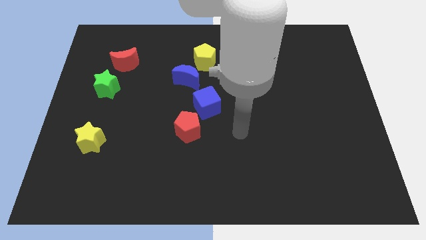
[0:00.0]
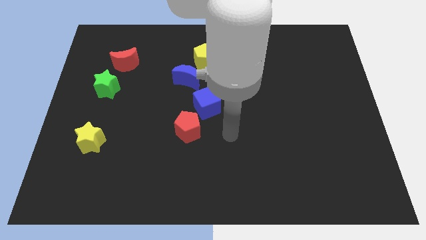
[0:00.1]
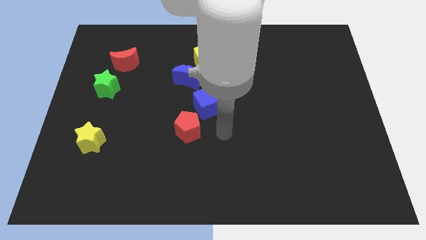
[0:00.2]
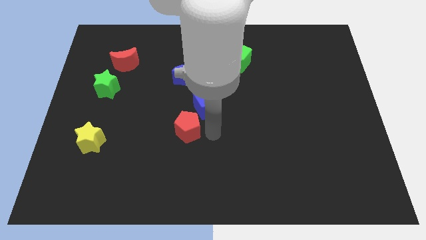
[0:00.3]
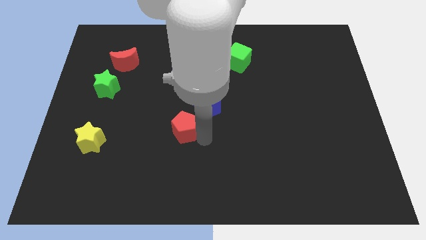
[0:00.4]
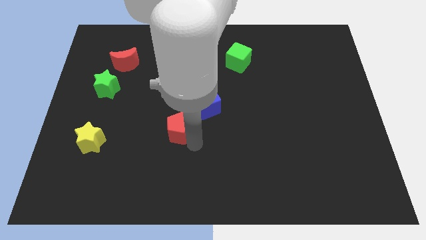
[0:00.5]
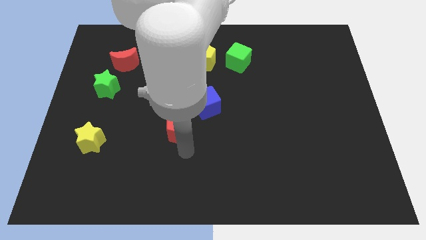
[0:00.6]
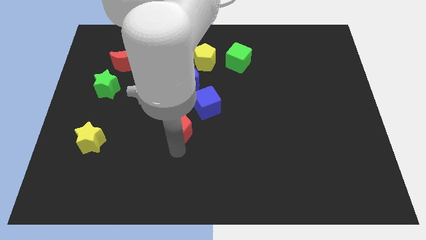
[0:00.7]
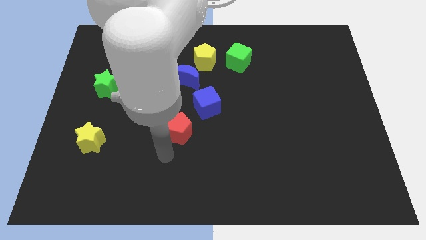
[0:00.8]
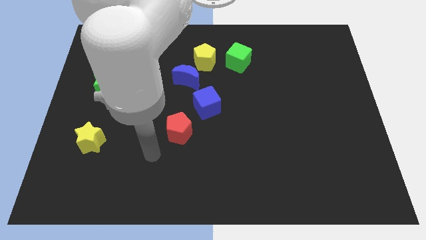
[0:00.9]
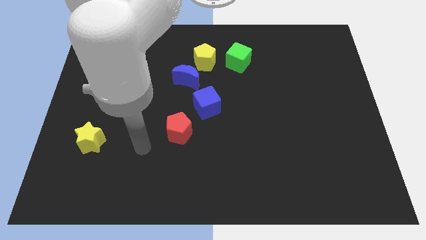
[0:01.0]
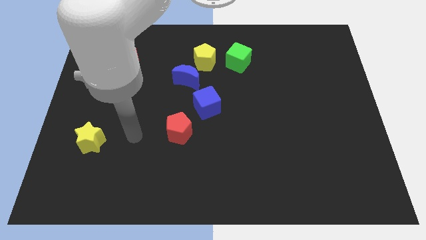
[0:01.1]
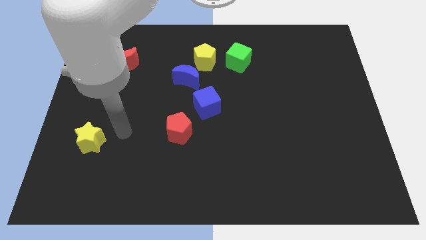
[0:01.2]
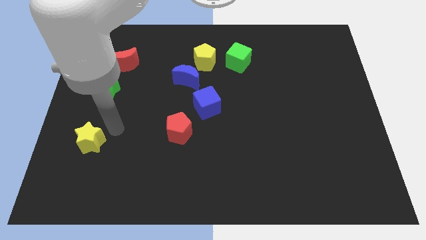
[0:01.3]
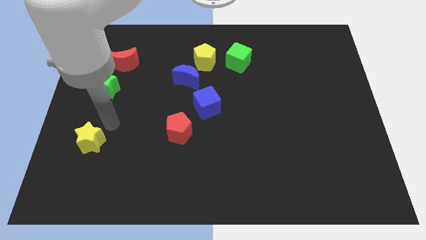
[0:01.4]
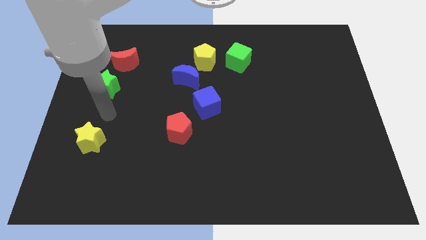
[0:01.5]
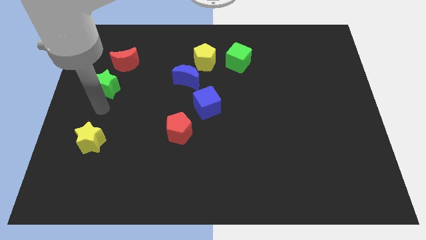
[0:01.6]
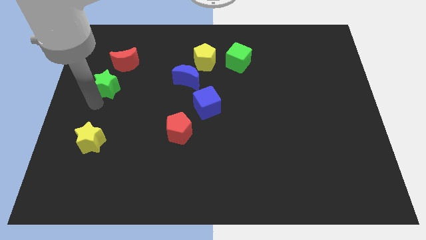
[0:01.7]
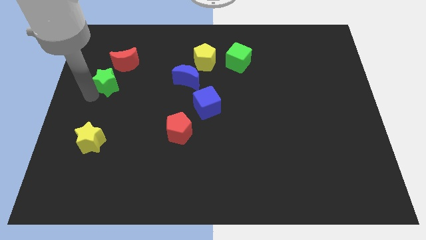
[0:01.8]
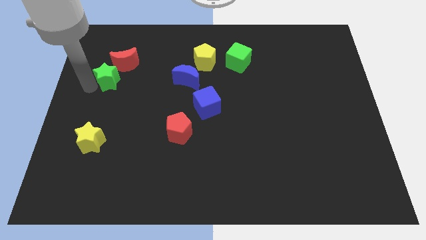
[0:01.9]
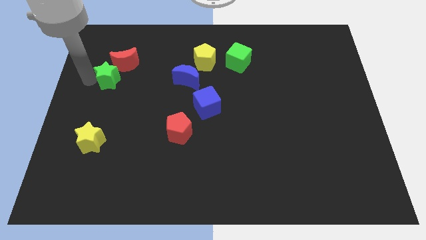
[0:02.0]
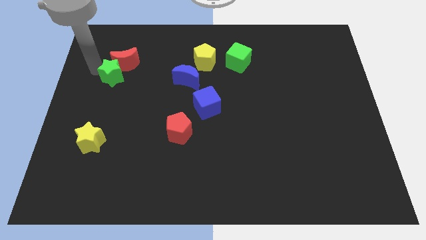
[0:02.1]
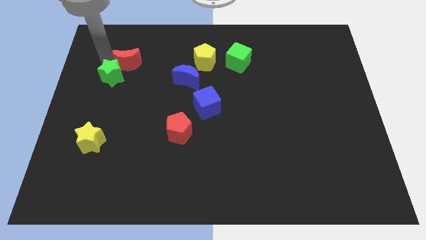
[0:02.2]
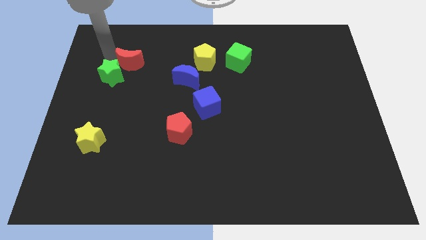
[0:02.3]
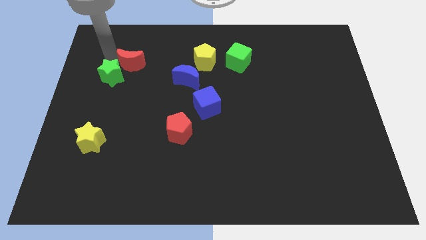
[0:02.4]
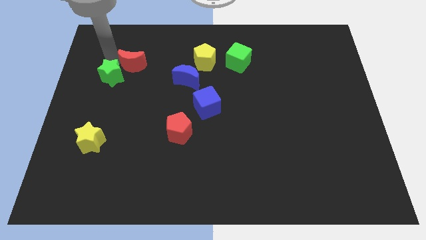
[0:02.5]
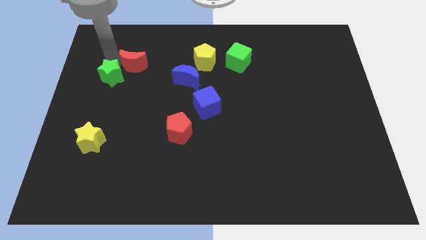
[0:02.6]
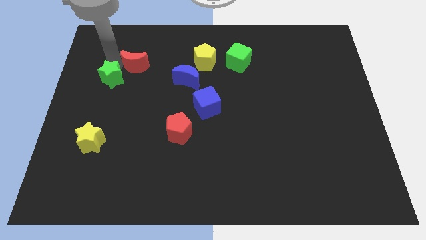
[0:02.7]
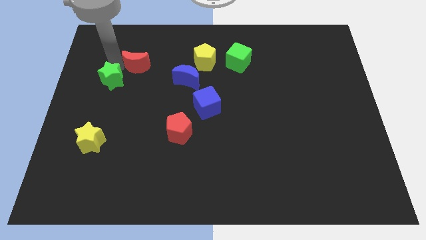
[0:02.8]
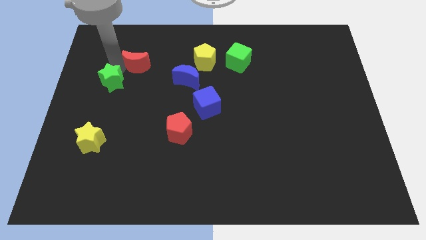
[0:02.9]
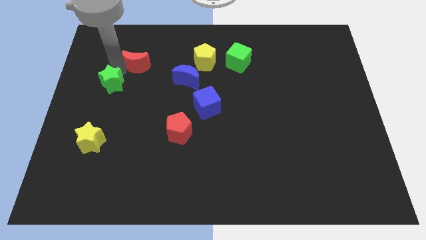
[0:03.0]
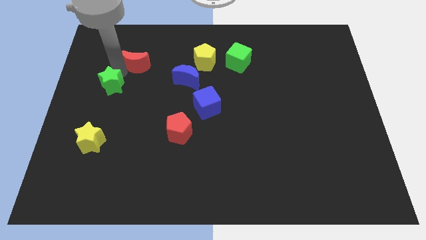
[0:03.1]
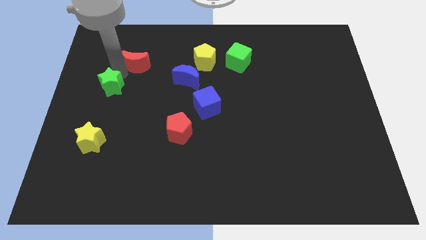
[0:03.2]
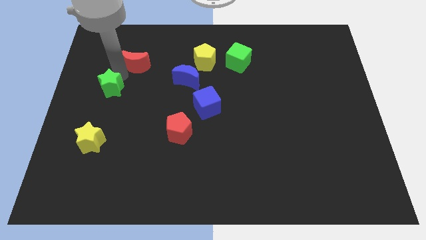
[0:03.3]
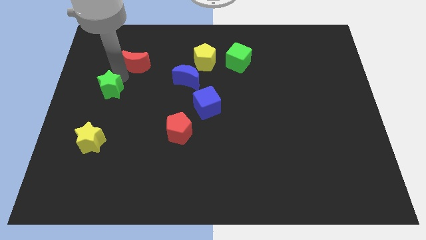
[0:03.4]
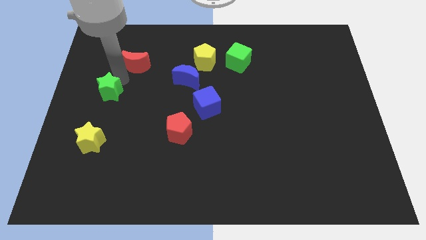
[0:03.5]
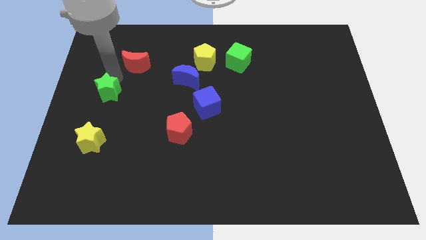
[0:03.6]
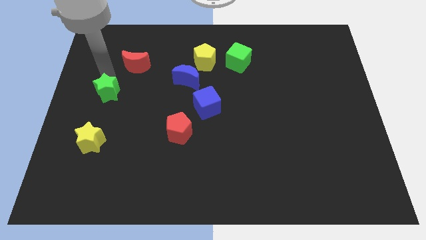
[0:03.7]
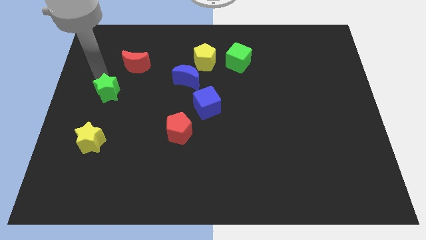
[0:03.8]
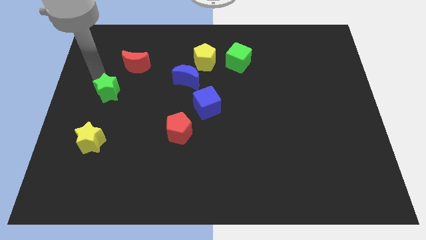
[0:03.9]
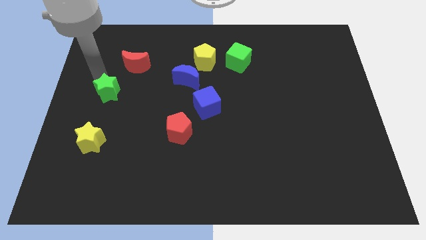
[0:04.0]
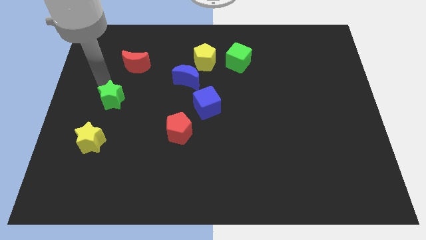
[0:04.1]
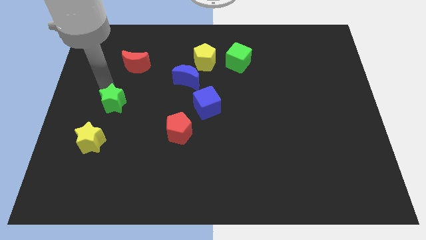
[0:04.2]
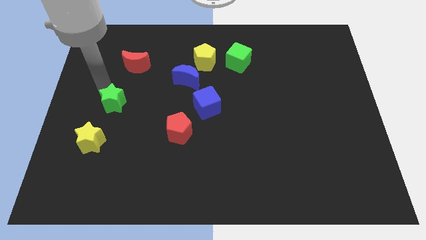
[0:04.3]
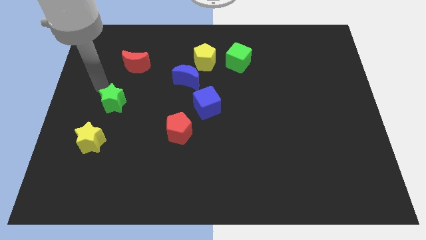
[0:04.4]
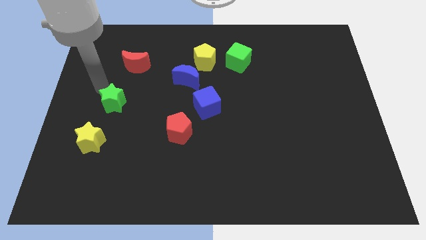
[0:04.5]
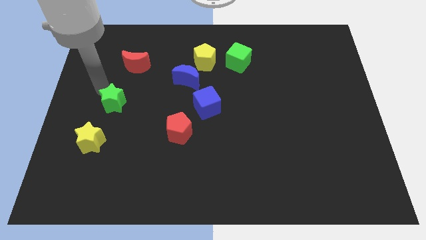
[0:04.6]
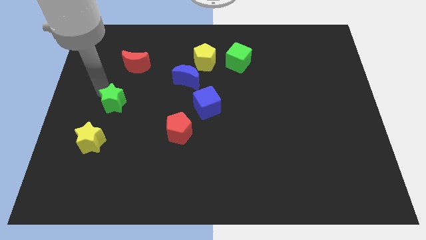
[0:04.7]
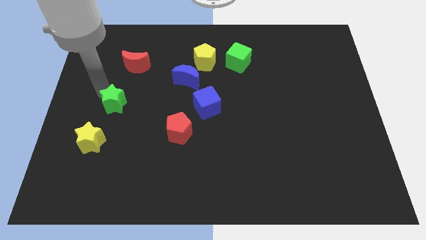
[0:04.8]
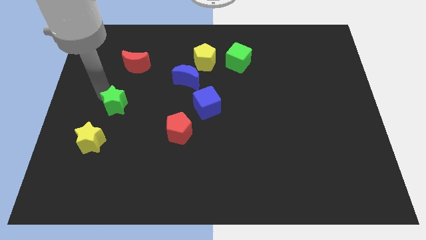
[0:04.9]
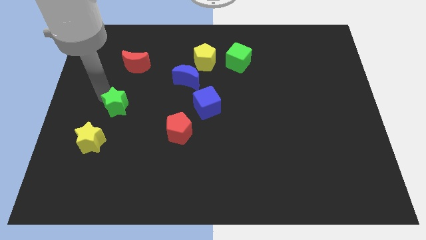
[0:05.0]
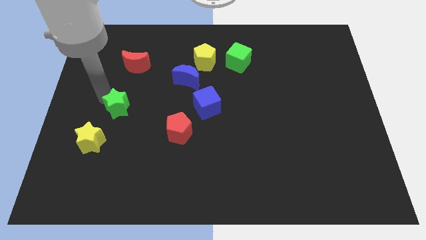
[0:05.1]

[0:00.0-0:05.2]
slide the green star a little down and to the right diagonally

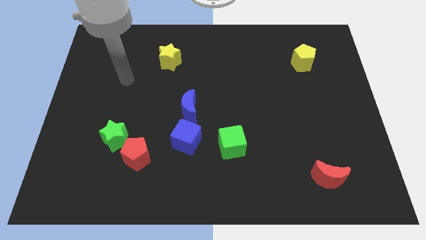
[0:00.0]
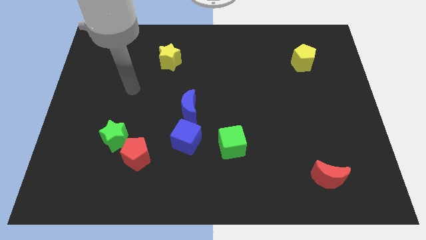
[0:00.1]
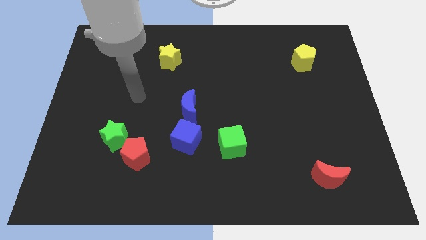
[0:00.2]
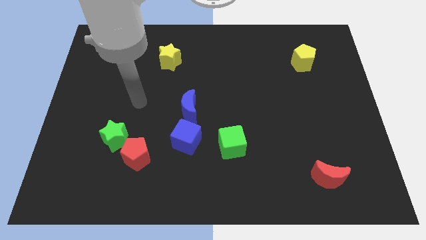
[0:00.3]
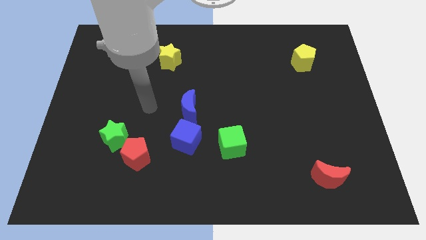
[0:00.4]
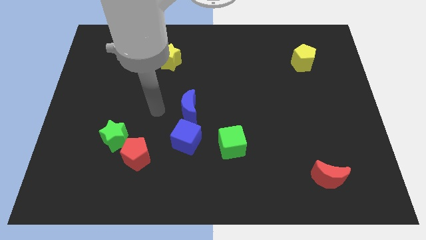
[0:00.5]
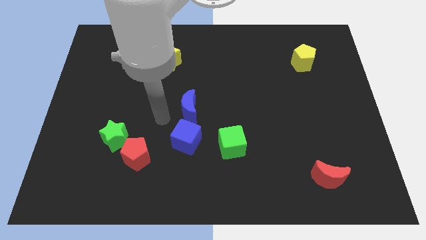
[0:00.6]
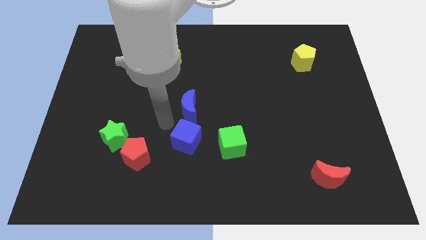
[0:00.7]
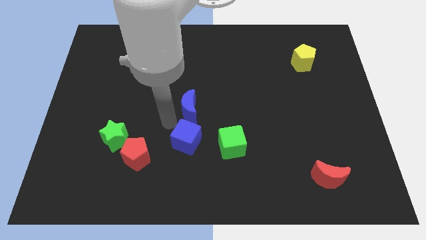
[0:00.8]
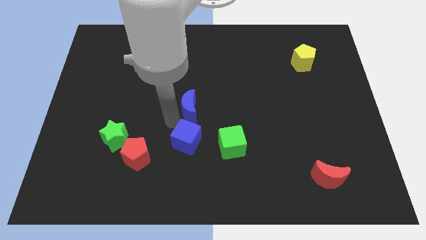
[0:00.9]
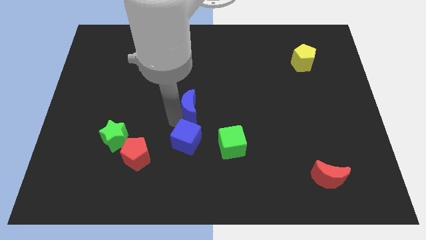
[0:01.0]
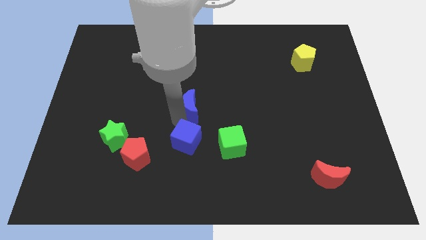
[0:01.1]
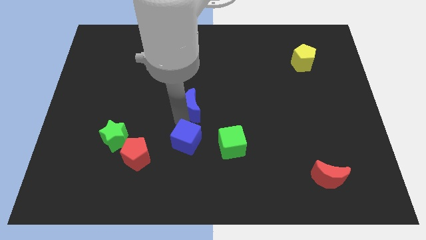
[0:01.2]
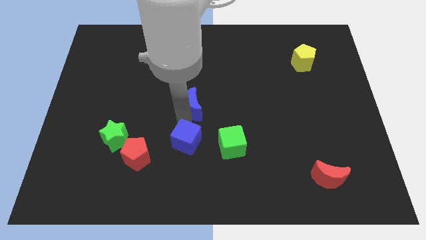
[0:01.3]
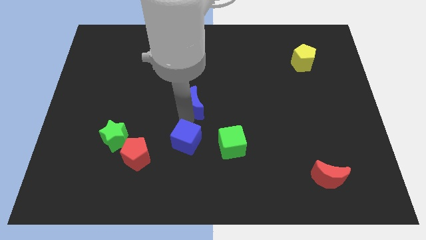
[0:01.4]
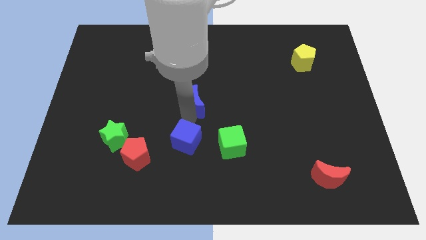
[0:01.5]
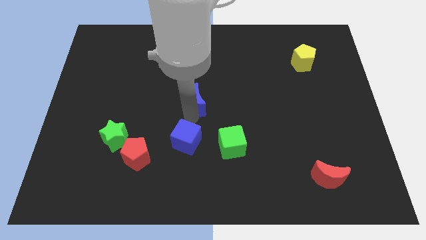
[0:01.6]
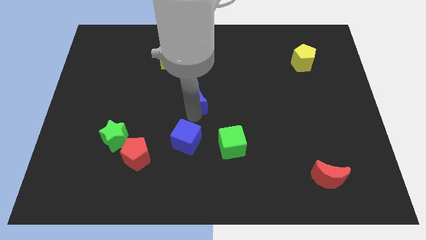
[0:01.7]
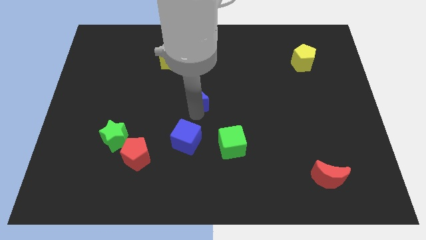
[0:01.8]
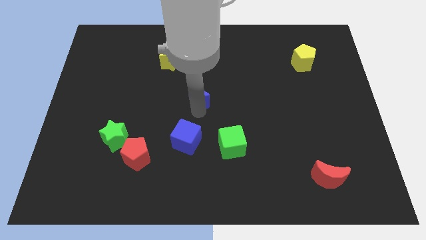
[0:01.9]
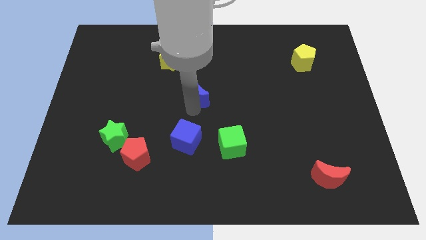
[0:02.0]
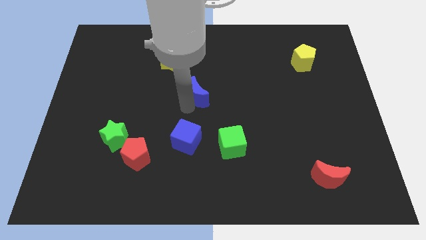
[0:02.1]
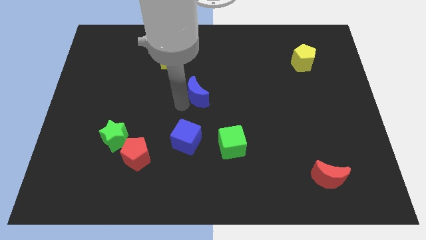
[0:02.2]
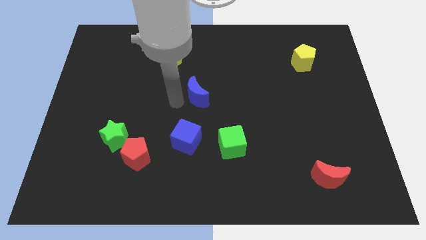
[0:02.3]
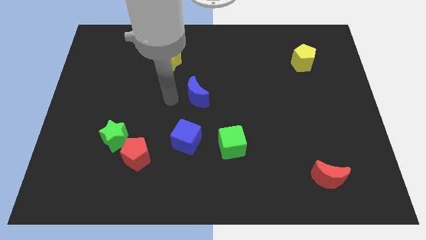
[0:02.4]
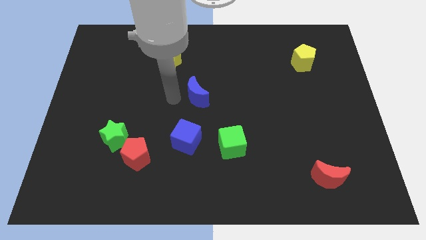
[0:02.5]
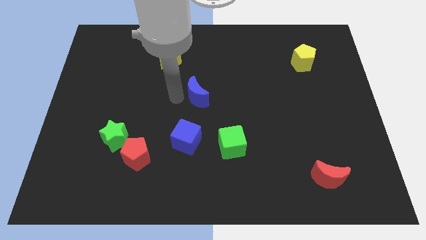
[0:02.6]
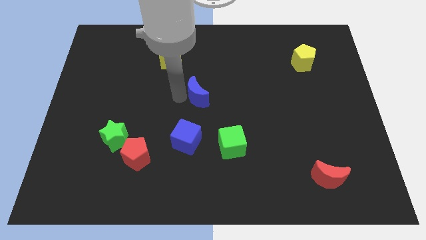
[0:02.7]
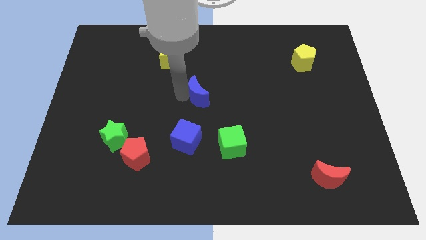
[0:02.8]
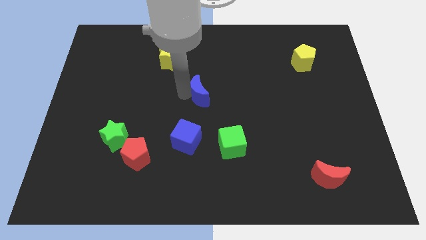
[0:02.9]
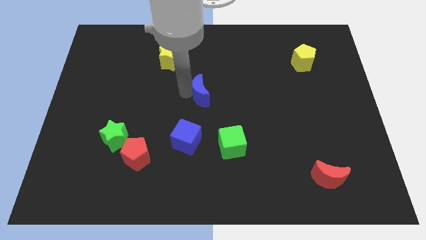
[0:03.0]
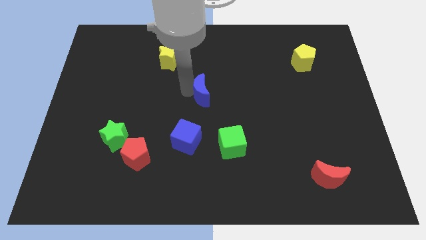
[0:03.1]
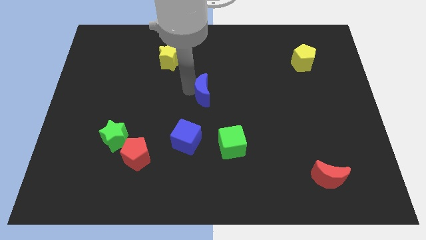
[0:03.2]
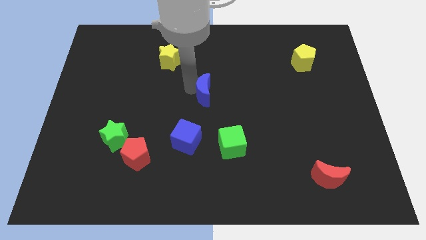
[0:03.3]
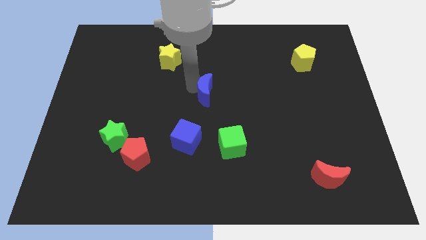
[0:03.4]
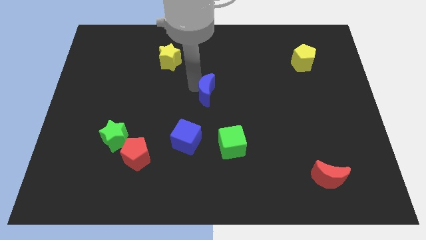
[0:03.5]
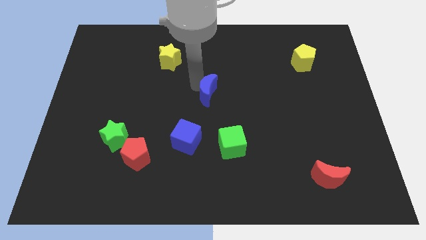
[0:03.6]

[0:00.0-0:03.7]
slide the blue moon slightly up and right diagonally
